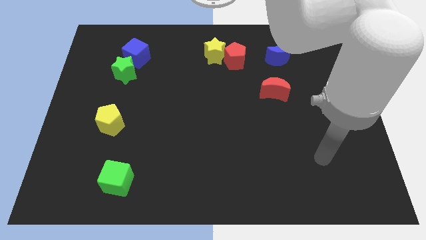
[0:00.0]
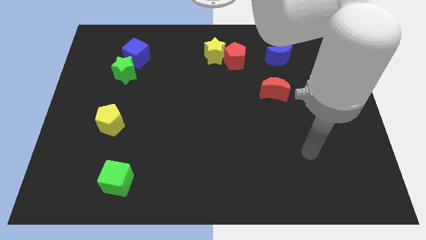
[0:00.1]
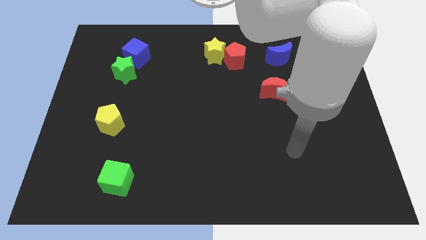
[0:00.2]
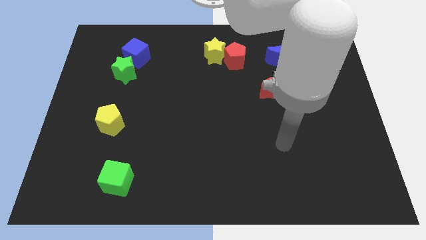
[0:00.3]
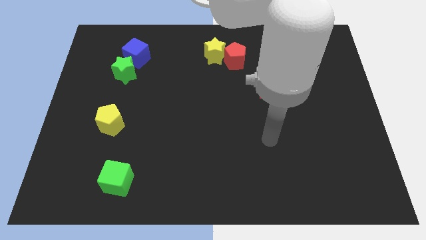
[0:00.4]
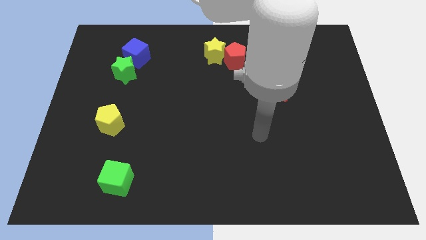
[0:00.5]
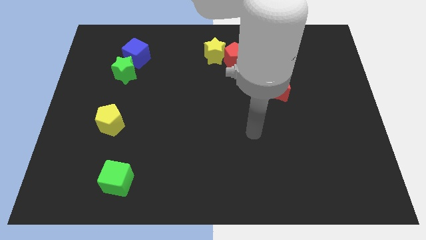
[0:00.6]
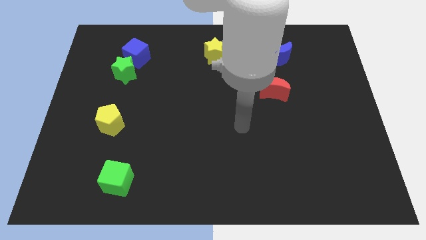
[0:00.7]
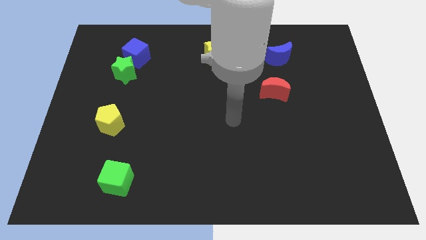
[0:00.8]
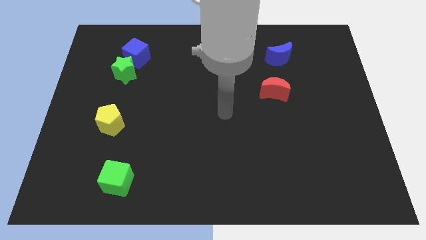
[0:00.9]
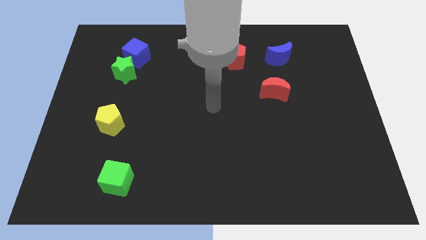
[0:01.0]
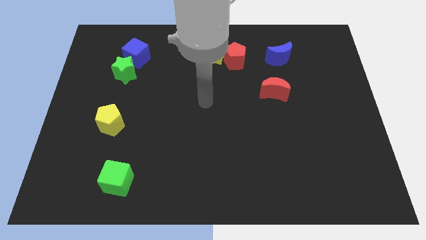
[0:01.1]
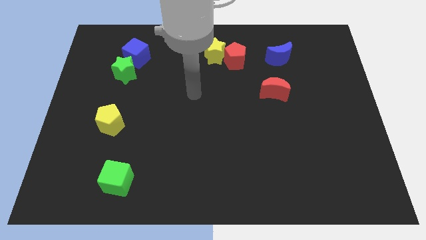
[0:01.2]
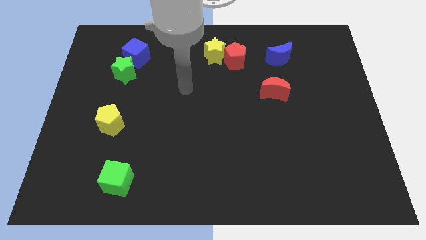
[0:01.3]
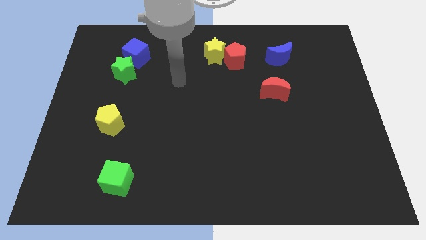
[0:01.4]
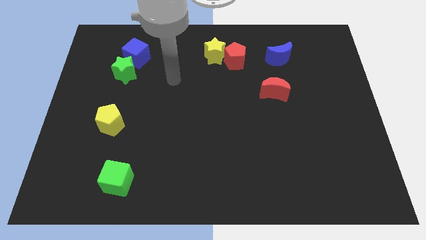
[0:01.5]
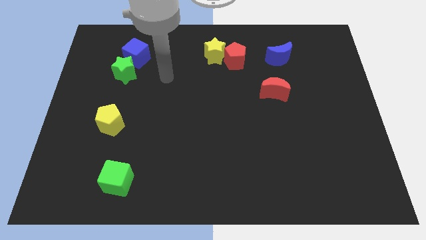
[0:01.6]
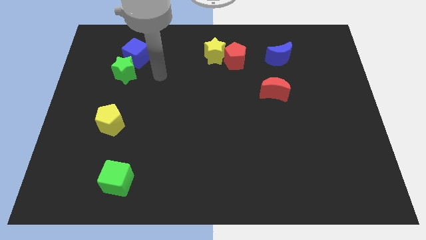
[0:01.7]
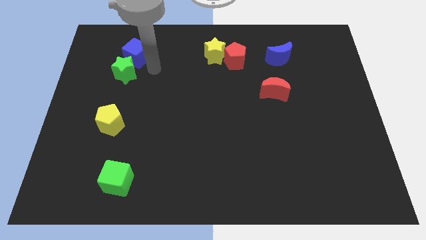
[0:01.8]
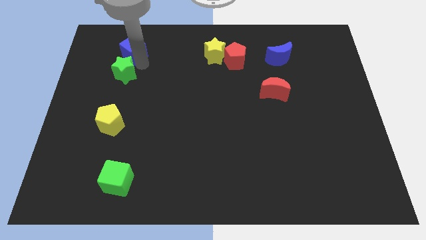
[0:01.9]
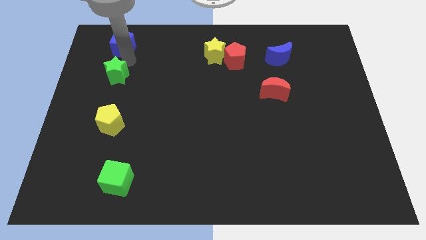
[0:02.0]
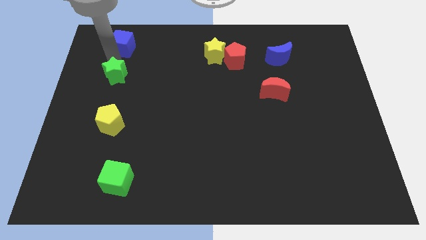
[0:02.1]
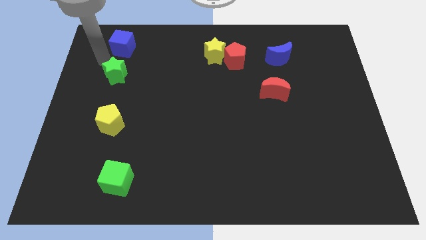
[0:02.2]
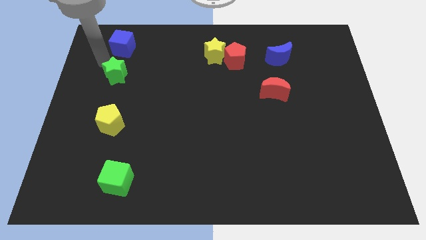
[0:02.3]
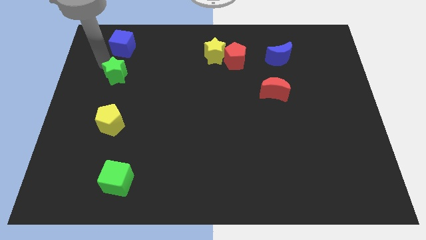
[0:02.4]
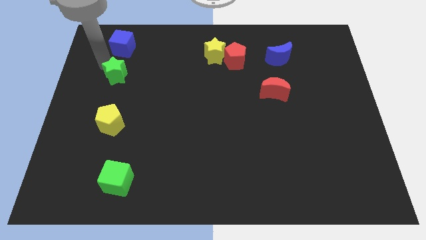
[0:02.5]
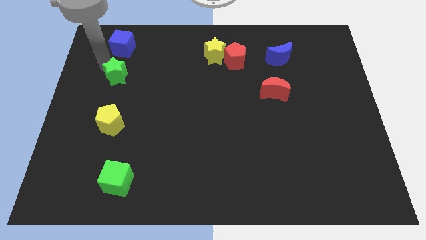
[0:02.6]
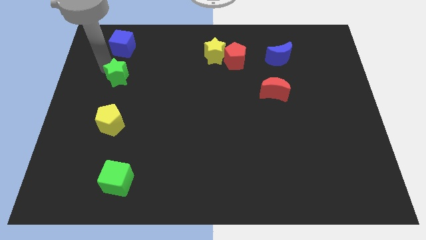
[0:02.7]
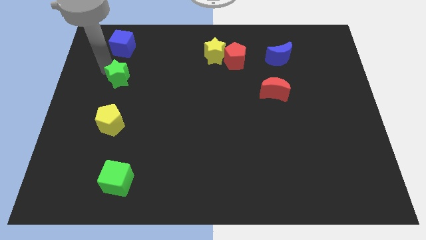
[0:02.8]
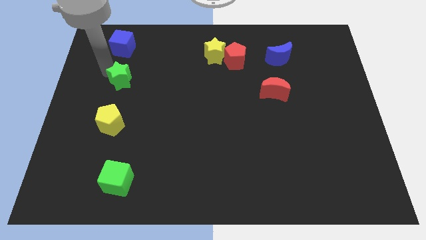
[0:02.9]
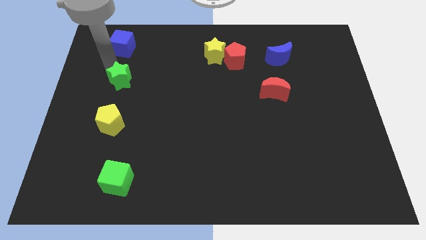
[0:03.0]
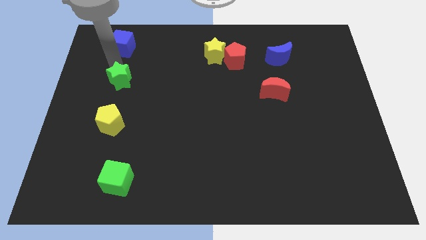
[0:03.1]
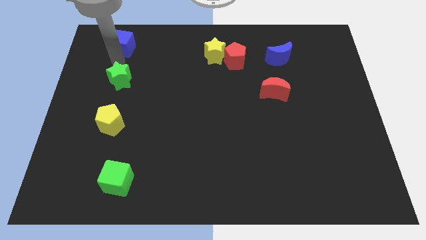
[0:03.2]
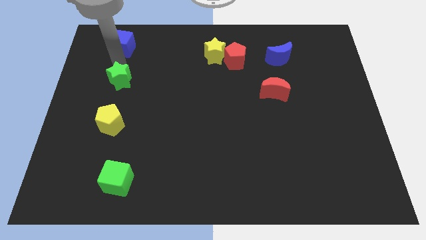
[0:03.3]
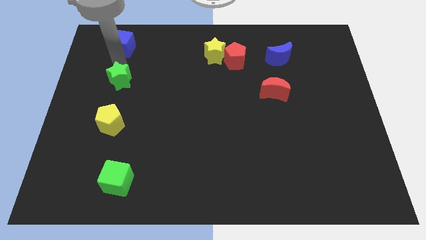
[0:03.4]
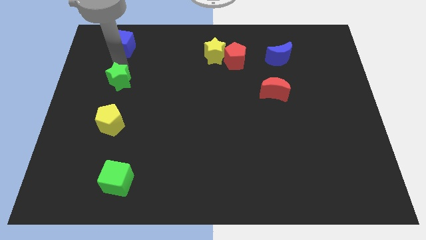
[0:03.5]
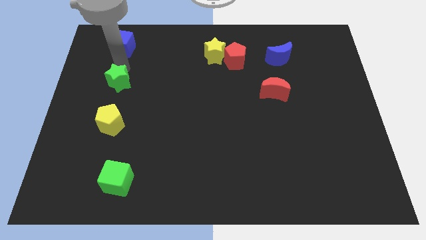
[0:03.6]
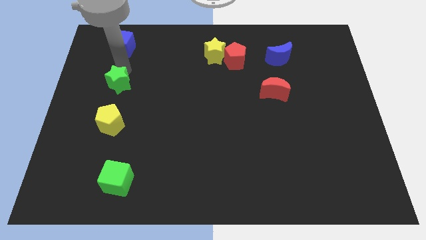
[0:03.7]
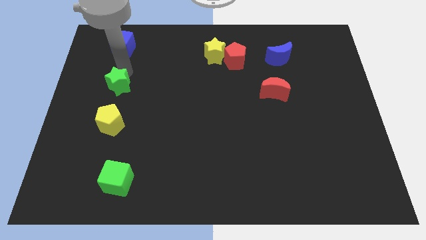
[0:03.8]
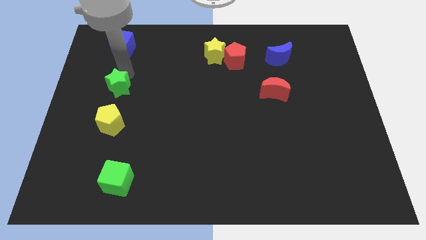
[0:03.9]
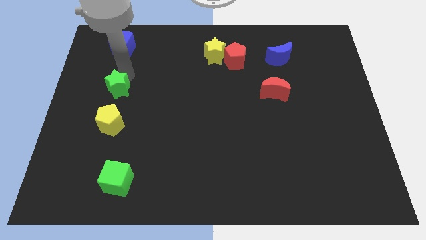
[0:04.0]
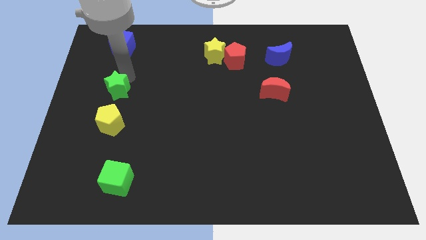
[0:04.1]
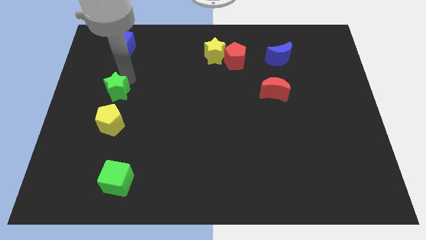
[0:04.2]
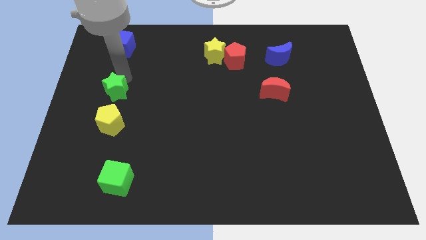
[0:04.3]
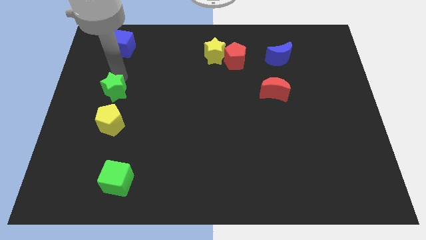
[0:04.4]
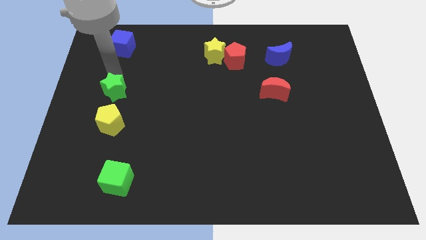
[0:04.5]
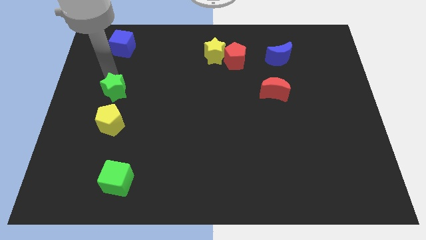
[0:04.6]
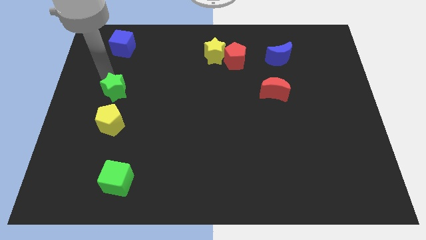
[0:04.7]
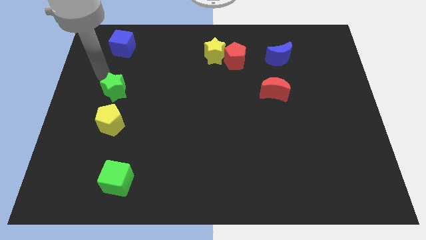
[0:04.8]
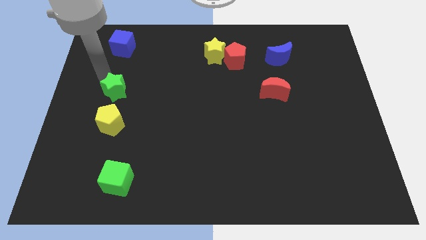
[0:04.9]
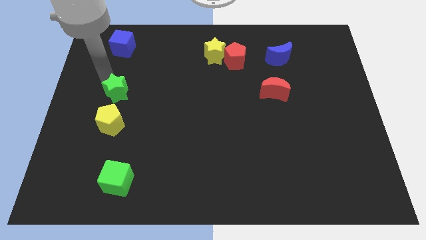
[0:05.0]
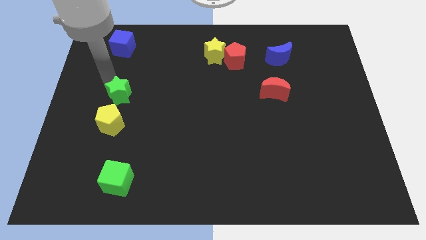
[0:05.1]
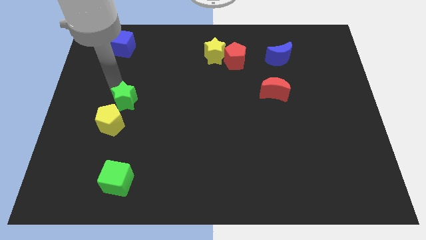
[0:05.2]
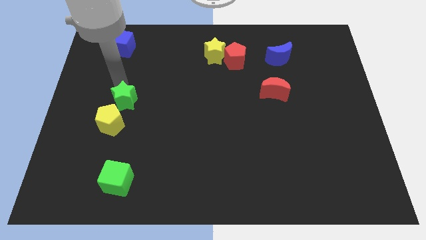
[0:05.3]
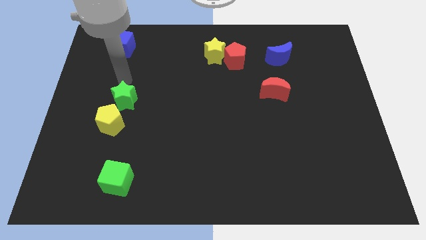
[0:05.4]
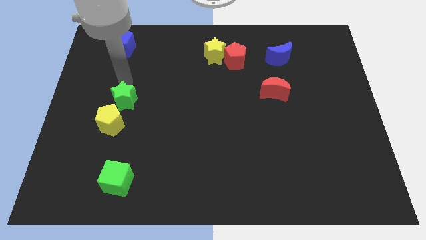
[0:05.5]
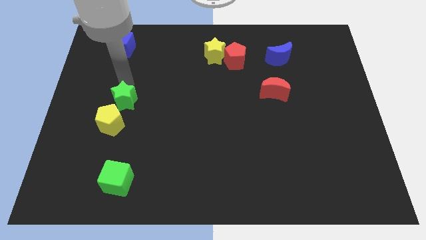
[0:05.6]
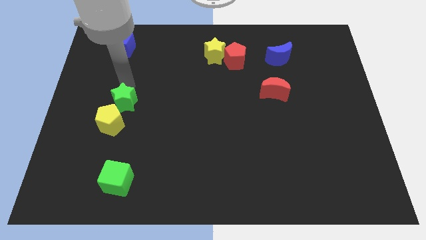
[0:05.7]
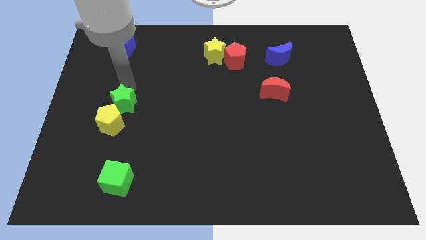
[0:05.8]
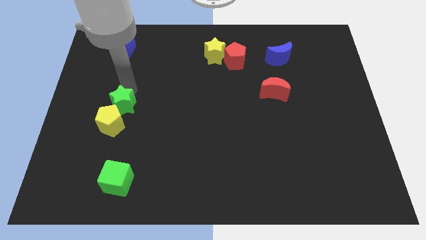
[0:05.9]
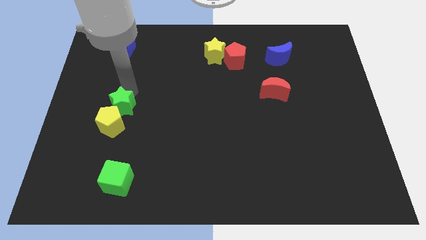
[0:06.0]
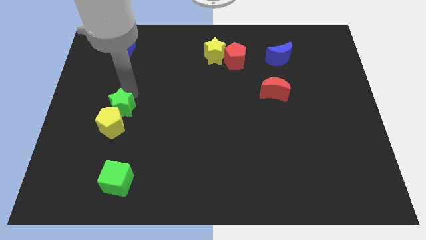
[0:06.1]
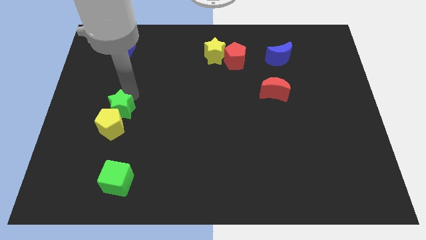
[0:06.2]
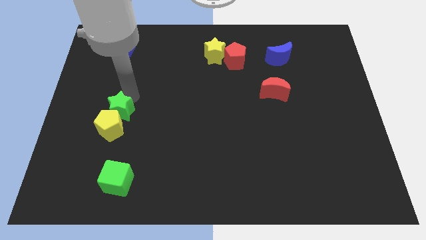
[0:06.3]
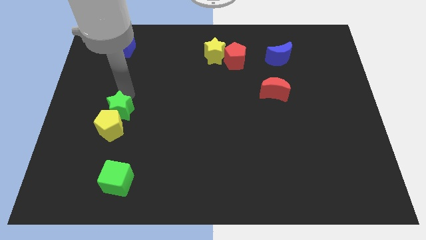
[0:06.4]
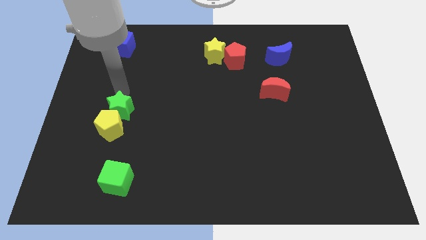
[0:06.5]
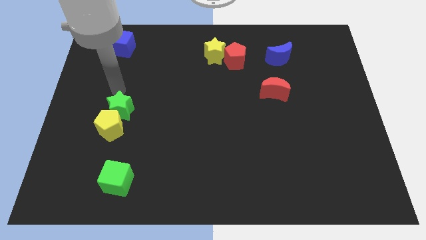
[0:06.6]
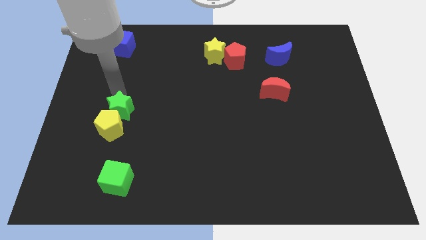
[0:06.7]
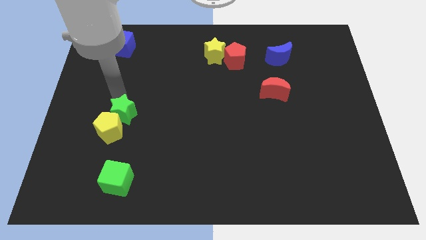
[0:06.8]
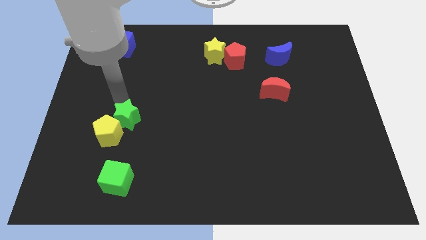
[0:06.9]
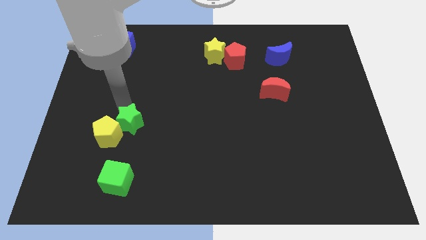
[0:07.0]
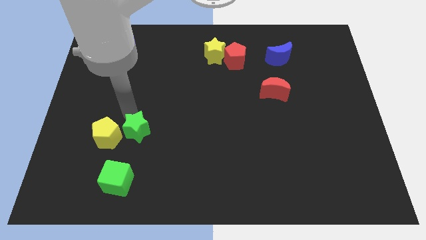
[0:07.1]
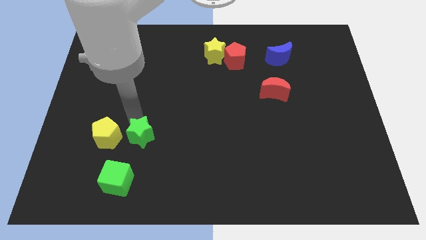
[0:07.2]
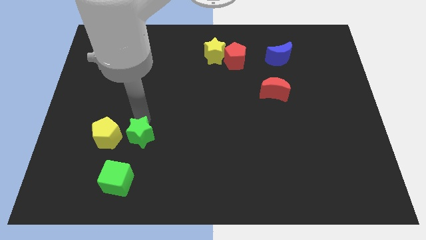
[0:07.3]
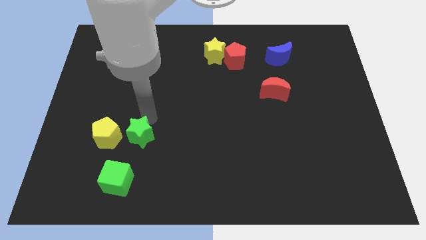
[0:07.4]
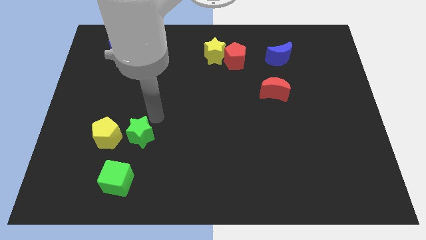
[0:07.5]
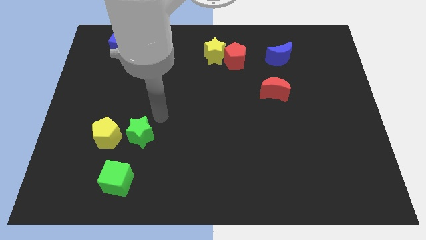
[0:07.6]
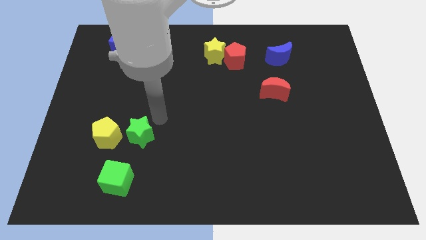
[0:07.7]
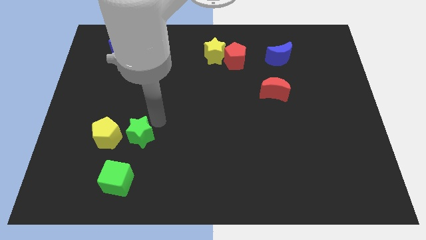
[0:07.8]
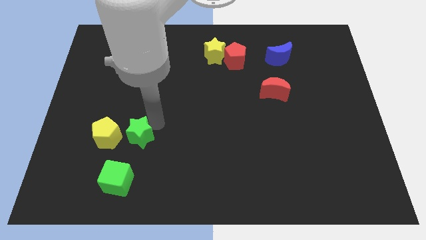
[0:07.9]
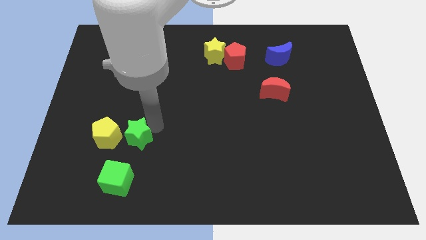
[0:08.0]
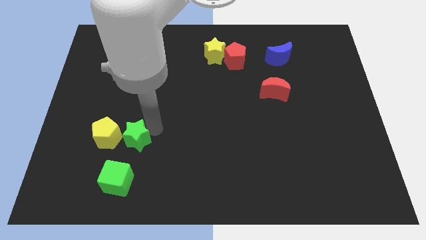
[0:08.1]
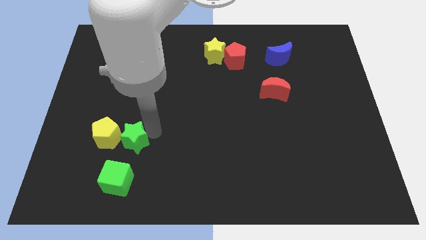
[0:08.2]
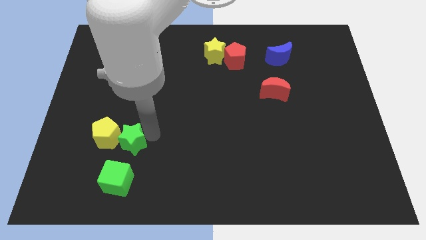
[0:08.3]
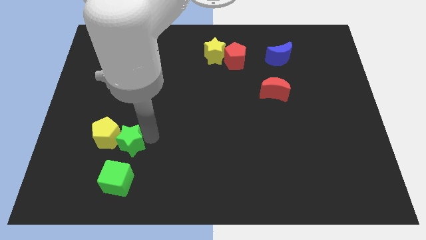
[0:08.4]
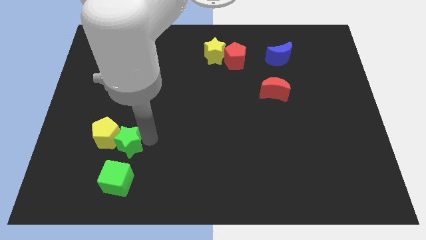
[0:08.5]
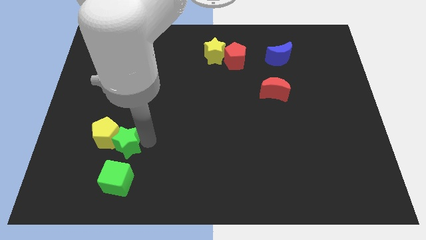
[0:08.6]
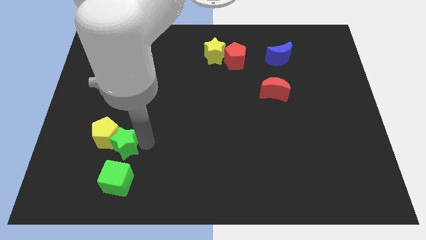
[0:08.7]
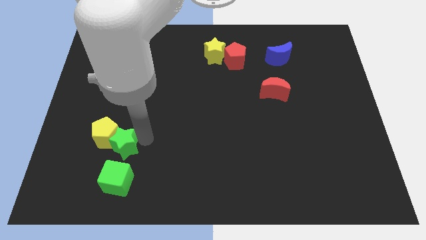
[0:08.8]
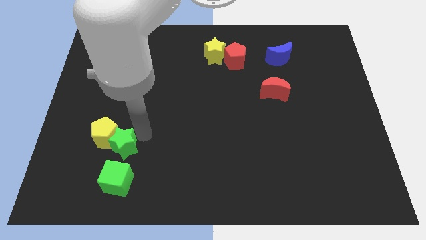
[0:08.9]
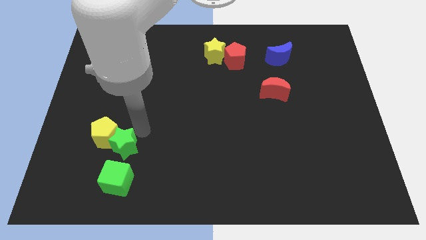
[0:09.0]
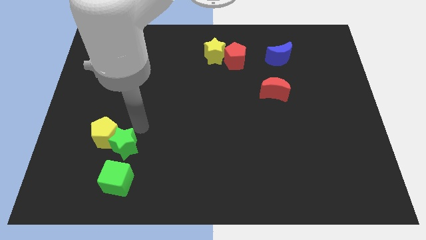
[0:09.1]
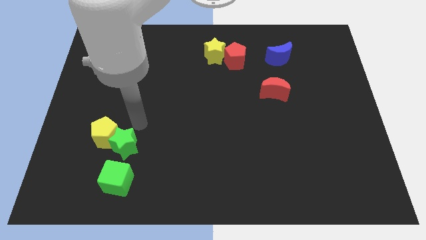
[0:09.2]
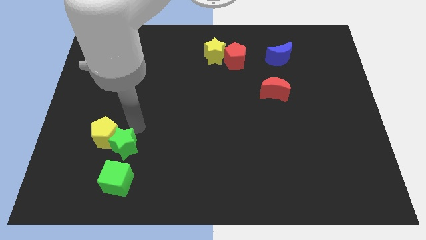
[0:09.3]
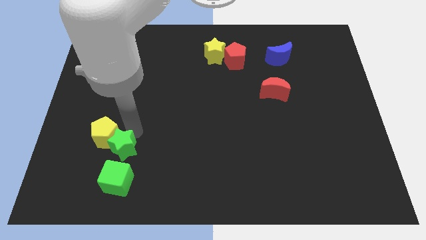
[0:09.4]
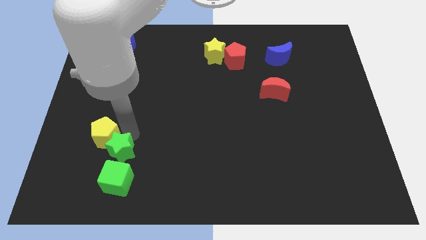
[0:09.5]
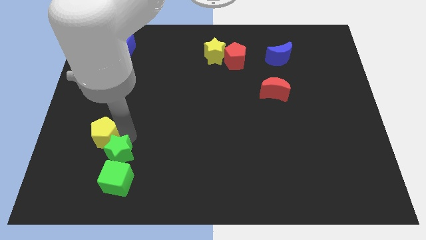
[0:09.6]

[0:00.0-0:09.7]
put the green star close to the green cube
